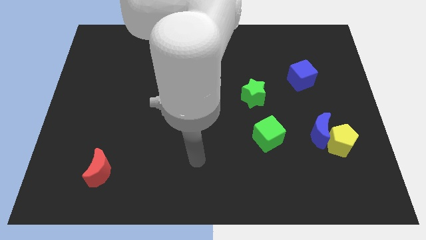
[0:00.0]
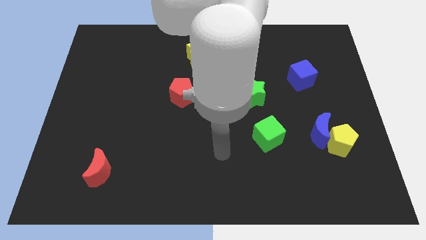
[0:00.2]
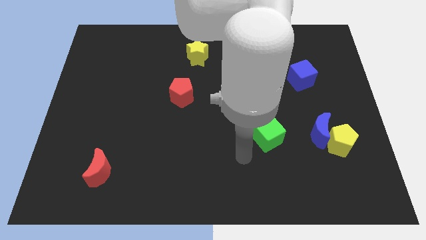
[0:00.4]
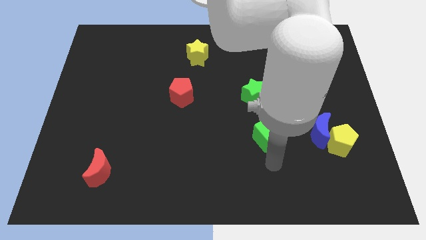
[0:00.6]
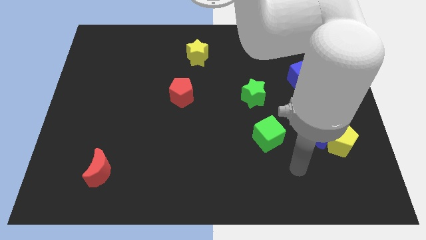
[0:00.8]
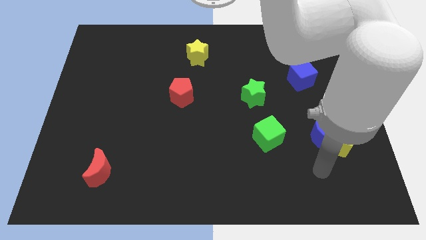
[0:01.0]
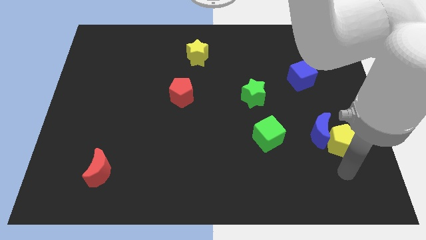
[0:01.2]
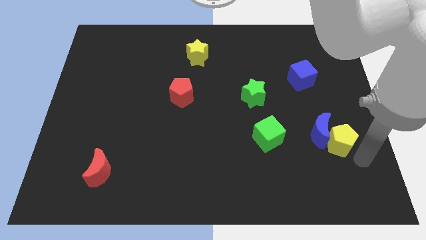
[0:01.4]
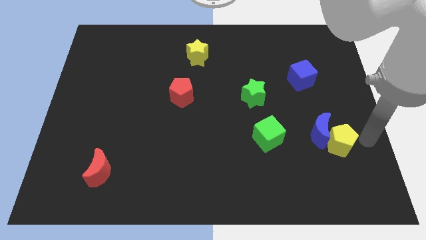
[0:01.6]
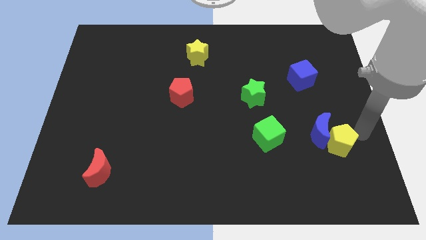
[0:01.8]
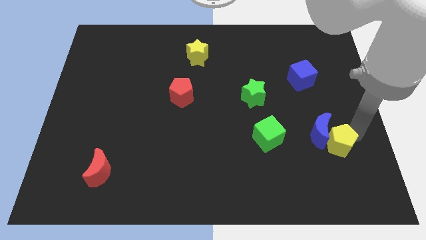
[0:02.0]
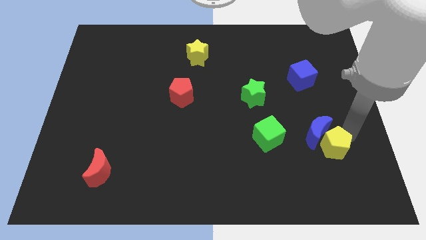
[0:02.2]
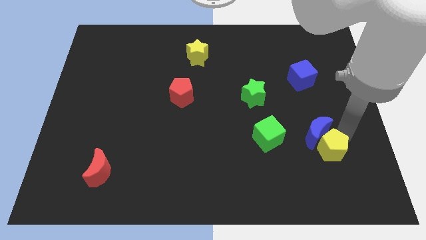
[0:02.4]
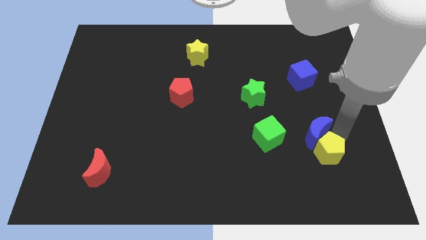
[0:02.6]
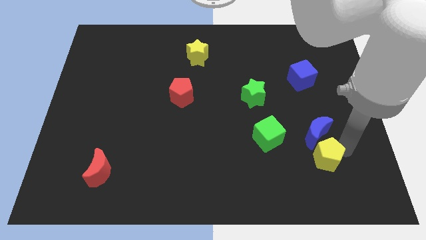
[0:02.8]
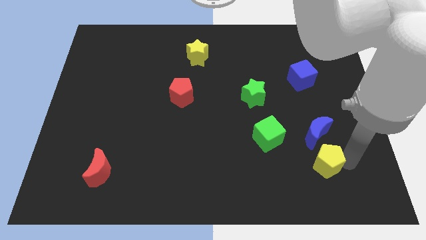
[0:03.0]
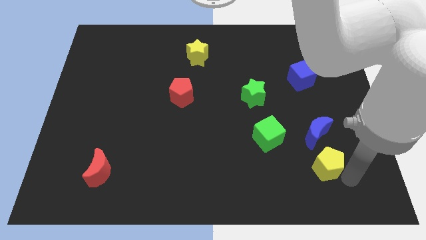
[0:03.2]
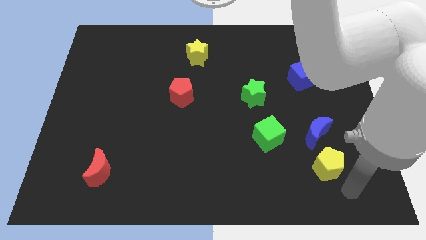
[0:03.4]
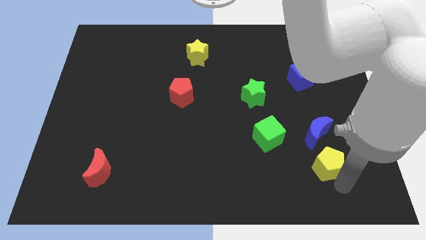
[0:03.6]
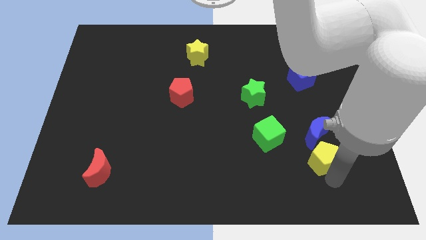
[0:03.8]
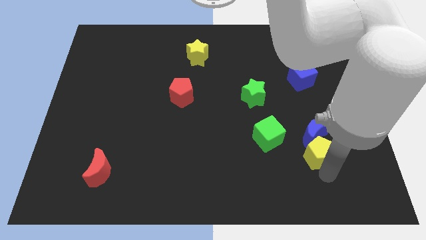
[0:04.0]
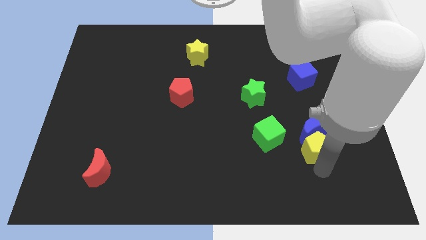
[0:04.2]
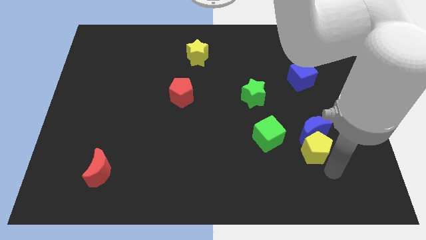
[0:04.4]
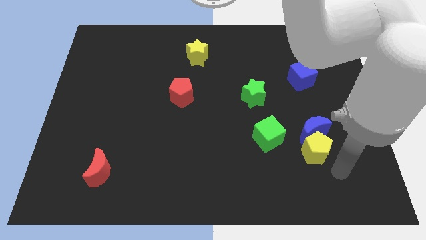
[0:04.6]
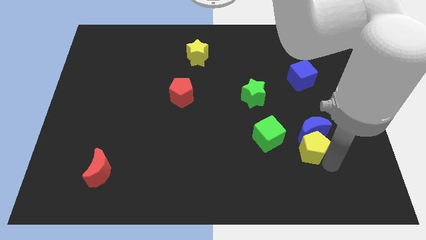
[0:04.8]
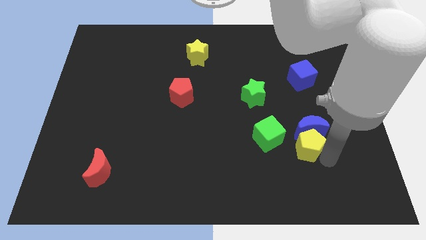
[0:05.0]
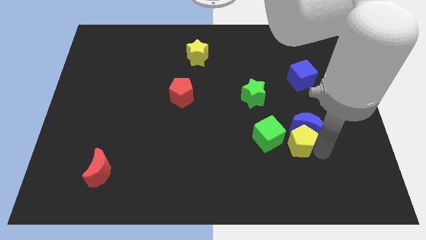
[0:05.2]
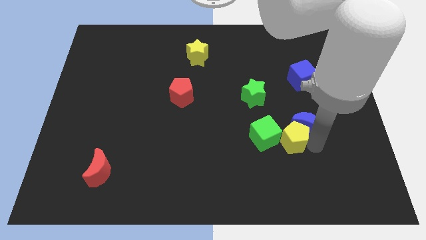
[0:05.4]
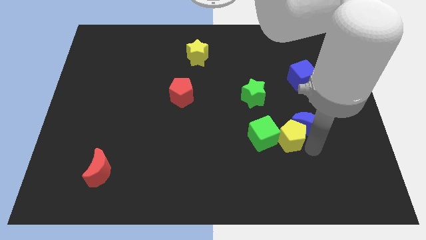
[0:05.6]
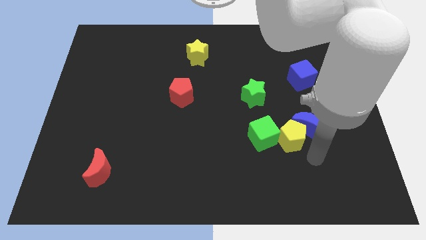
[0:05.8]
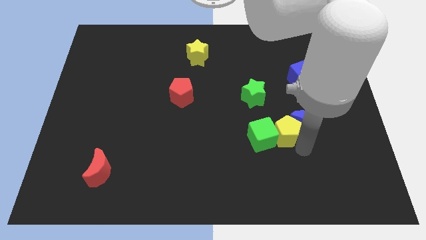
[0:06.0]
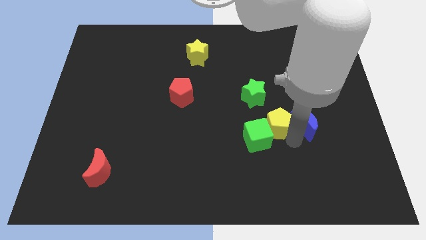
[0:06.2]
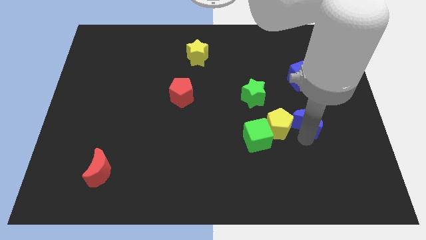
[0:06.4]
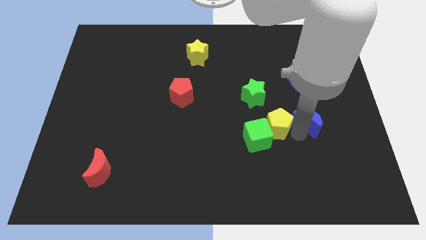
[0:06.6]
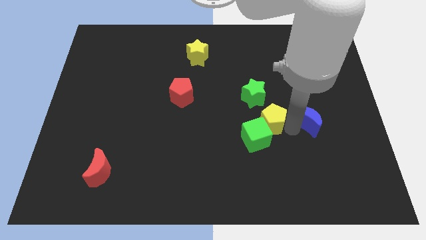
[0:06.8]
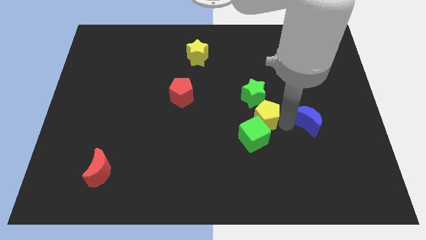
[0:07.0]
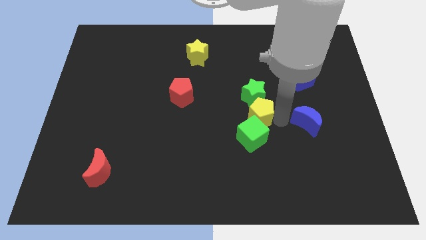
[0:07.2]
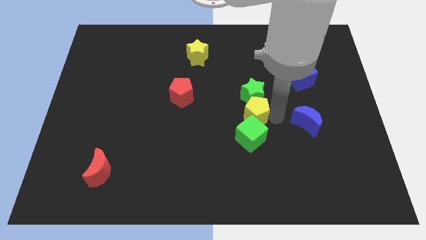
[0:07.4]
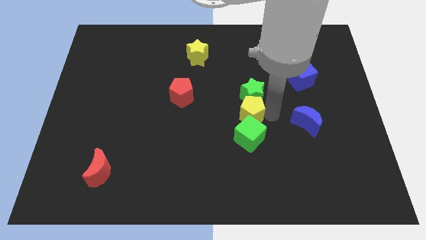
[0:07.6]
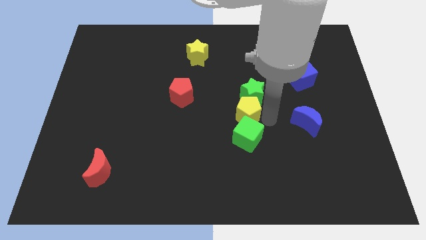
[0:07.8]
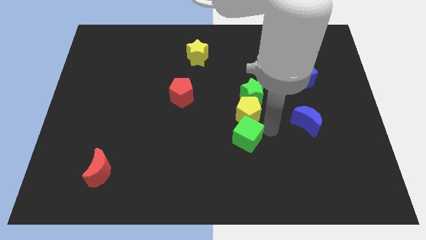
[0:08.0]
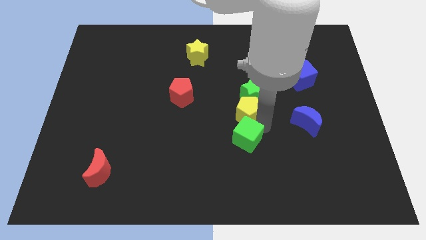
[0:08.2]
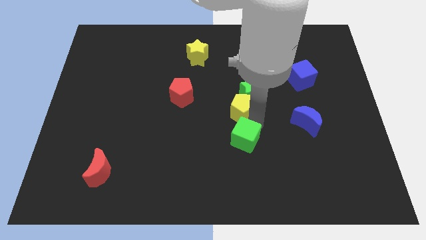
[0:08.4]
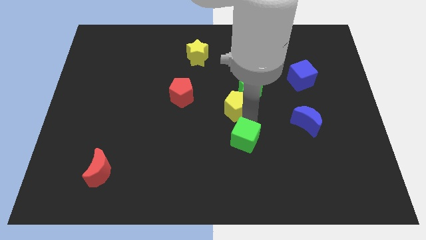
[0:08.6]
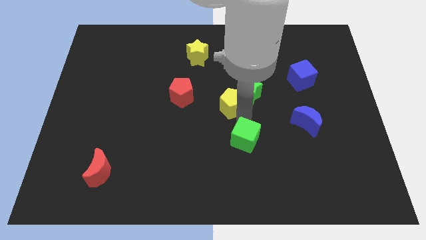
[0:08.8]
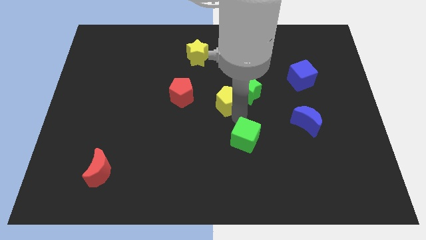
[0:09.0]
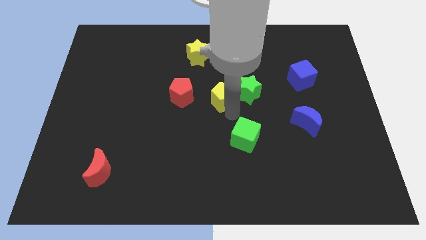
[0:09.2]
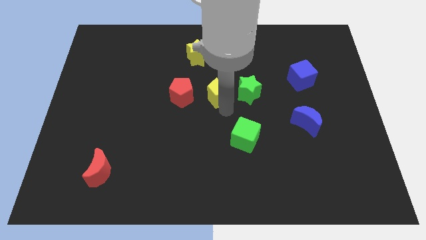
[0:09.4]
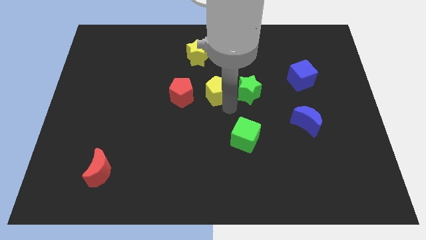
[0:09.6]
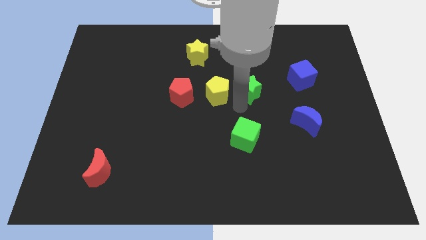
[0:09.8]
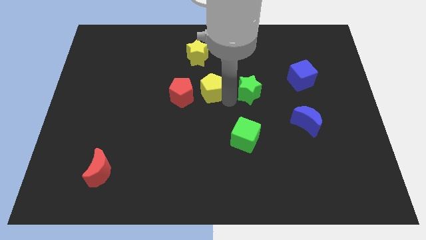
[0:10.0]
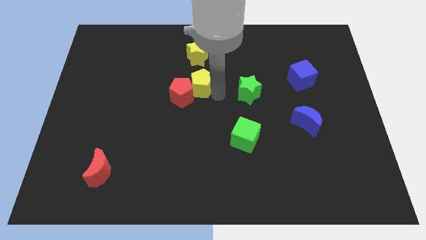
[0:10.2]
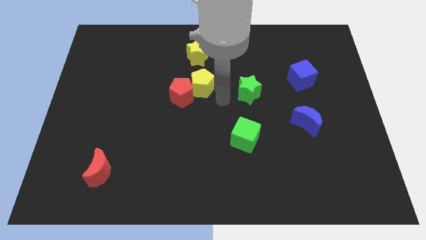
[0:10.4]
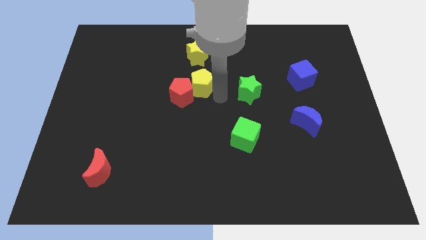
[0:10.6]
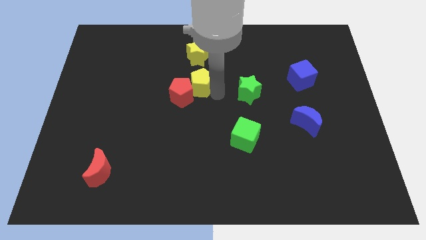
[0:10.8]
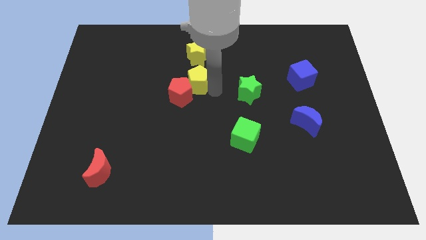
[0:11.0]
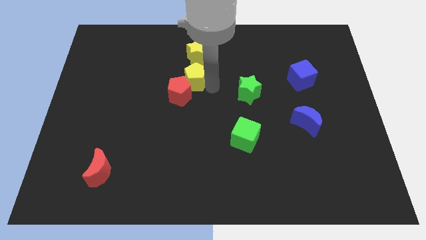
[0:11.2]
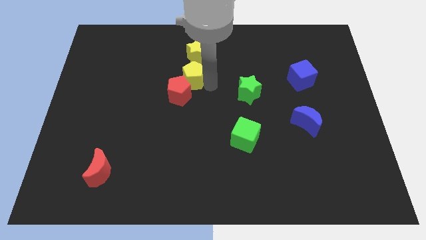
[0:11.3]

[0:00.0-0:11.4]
put the yellow pentagon diagonally down and to the left of the yellow star

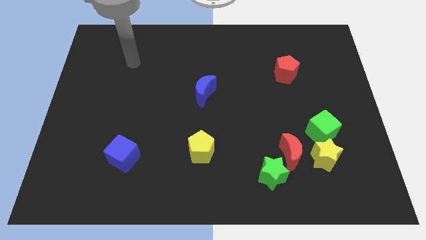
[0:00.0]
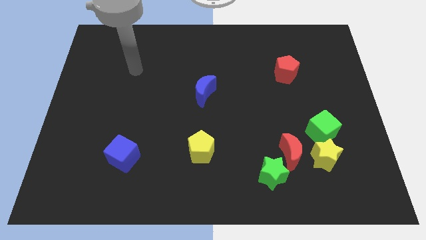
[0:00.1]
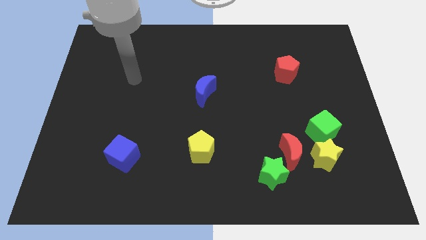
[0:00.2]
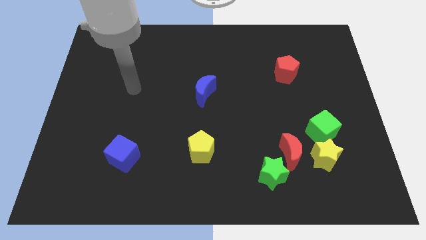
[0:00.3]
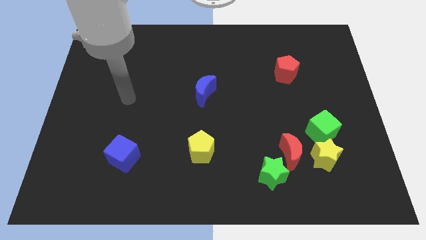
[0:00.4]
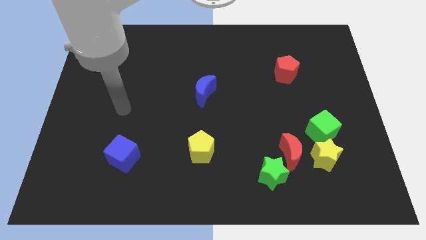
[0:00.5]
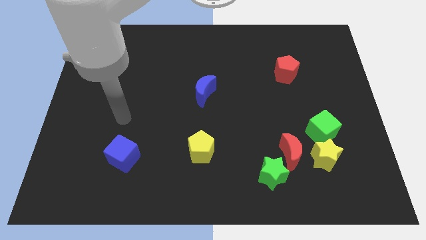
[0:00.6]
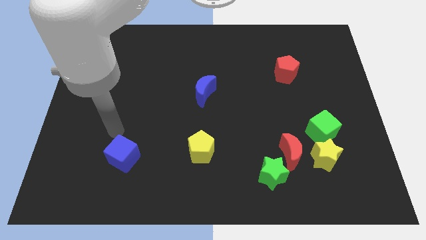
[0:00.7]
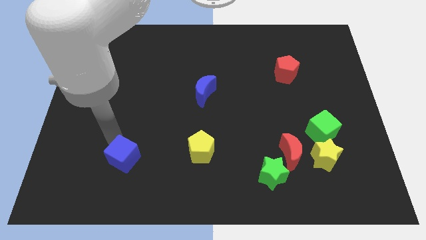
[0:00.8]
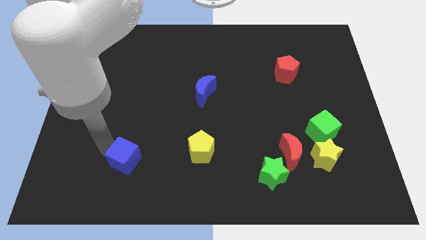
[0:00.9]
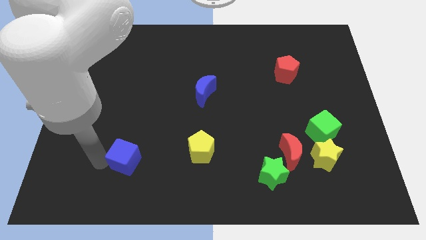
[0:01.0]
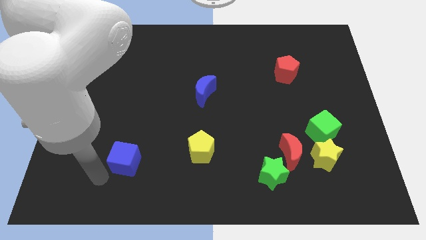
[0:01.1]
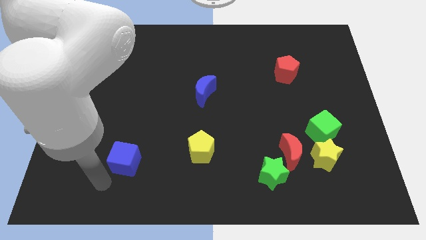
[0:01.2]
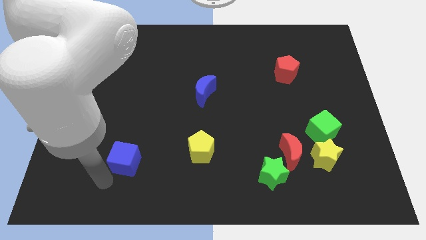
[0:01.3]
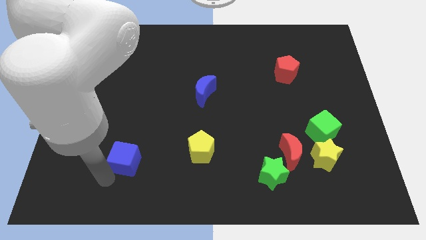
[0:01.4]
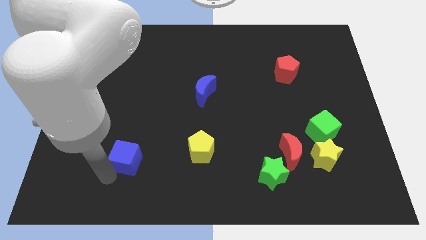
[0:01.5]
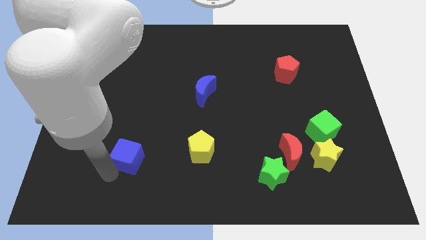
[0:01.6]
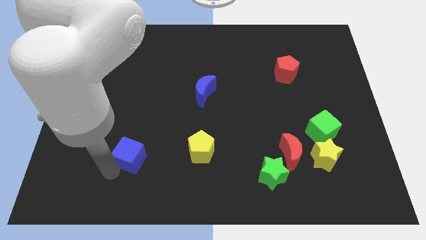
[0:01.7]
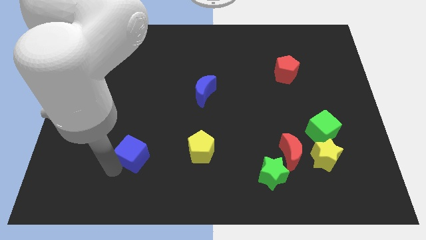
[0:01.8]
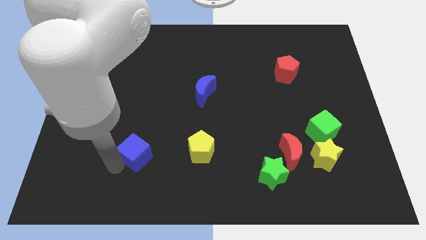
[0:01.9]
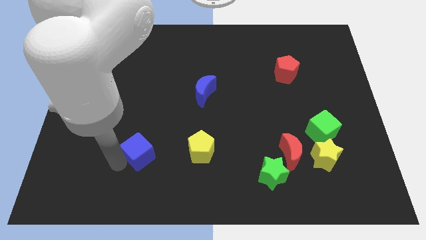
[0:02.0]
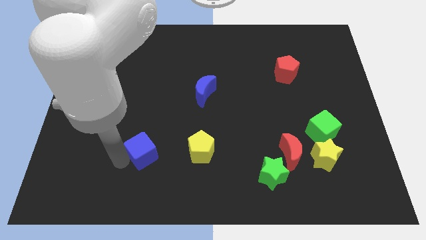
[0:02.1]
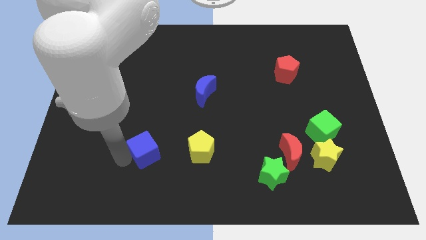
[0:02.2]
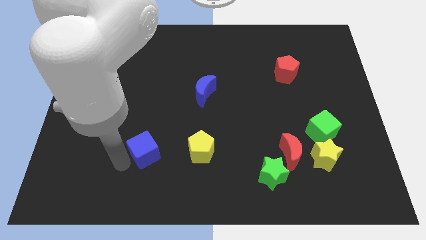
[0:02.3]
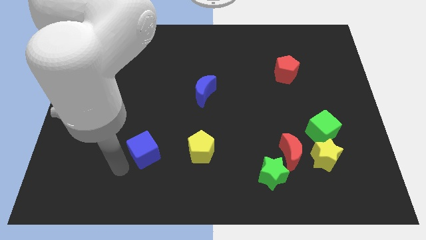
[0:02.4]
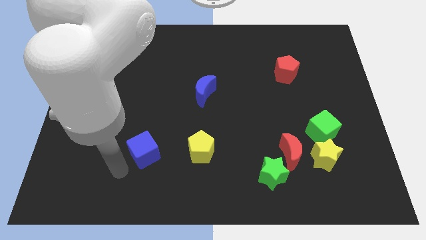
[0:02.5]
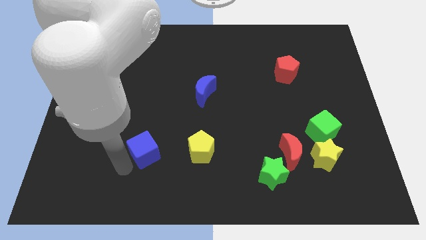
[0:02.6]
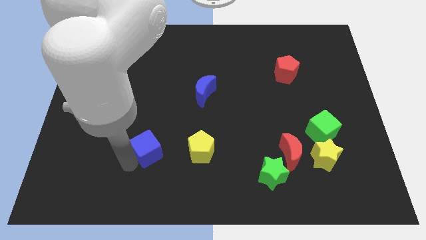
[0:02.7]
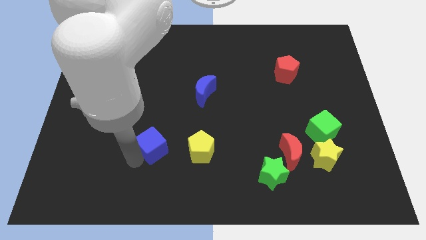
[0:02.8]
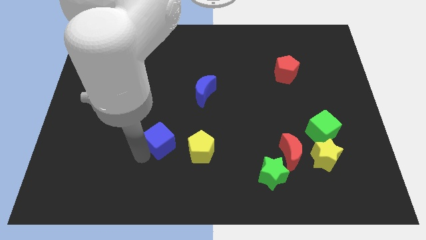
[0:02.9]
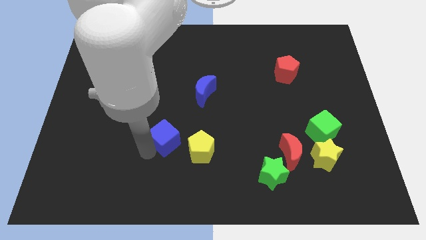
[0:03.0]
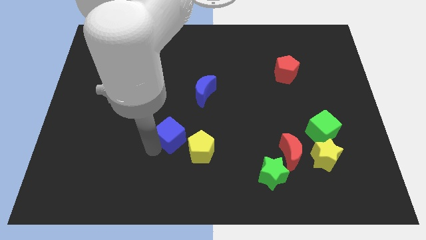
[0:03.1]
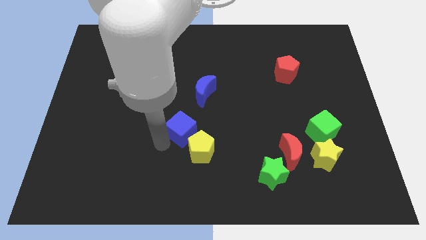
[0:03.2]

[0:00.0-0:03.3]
push the blue cube to the top of the yellow pentagon
